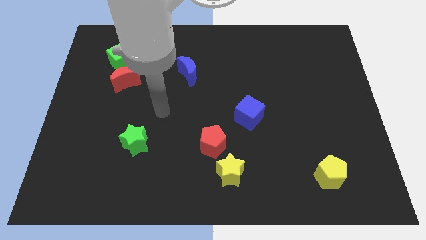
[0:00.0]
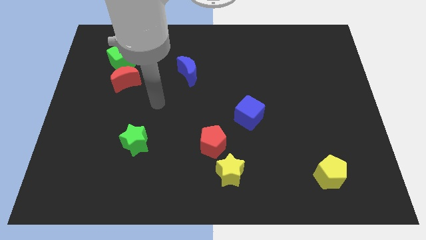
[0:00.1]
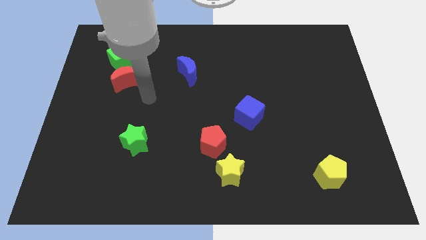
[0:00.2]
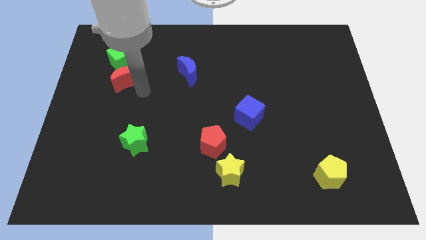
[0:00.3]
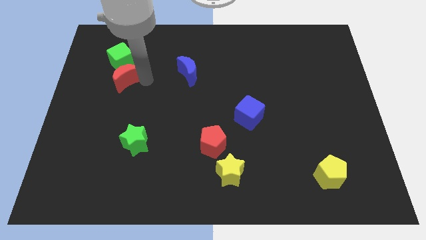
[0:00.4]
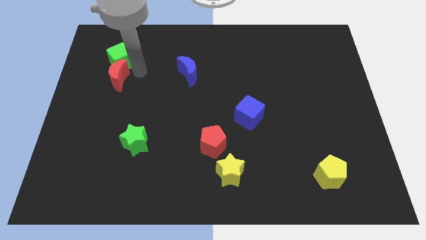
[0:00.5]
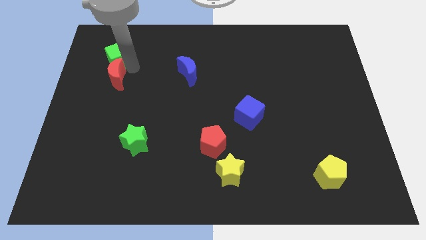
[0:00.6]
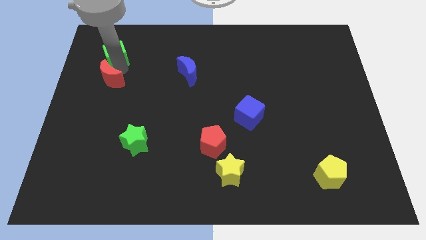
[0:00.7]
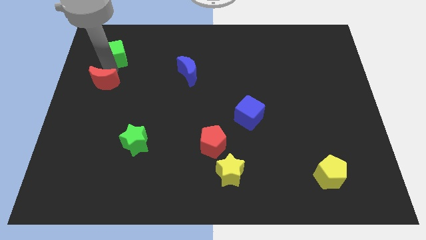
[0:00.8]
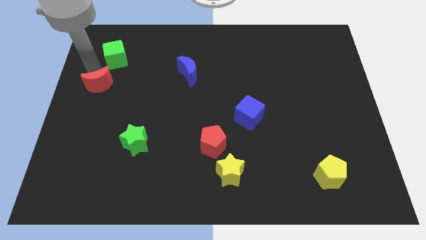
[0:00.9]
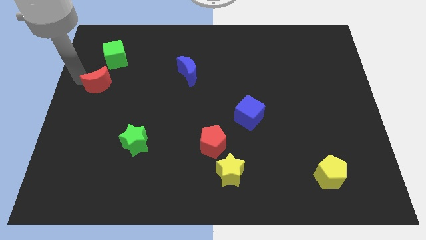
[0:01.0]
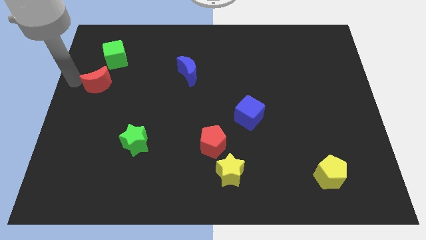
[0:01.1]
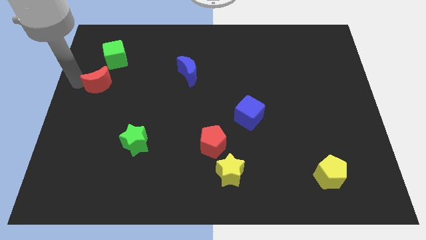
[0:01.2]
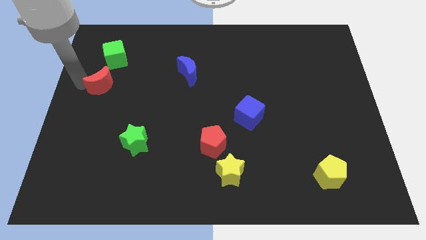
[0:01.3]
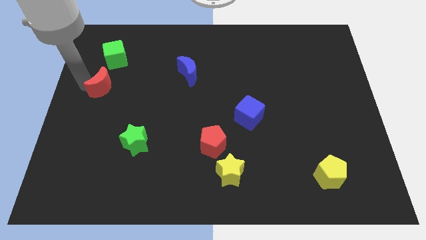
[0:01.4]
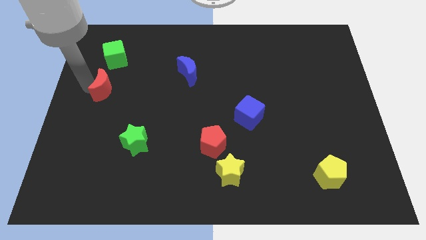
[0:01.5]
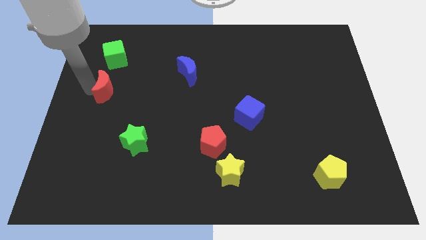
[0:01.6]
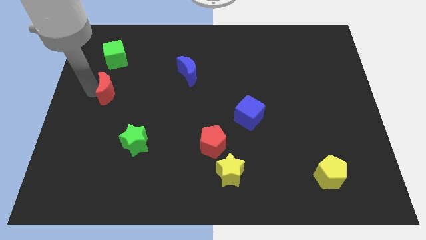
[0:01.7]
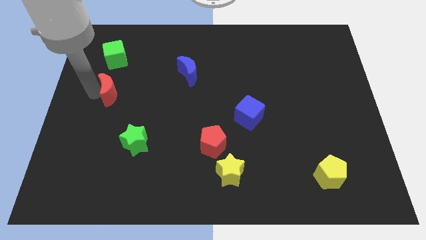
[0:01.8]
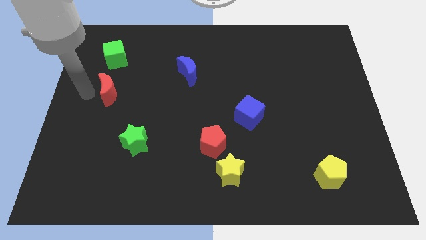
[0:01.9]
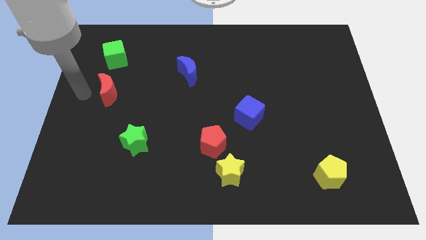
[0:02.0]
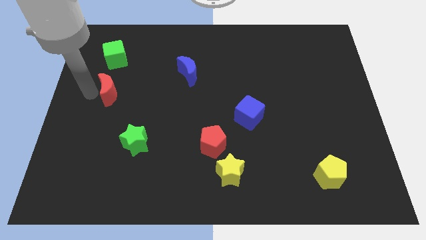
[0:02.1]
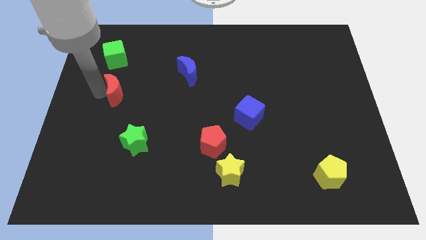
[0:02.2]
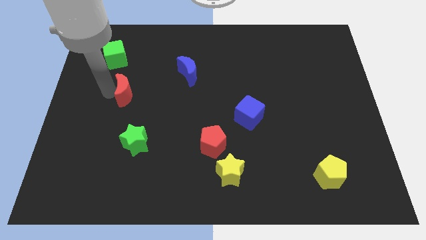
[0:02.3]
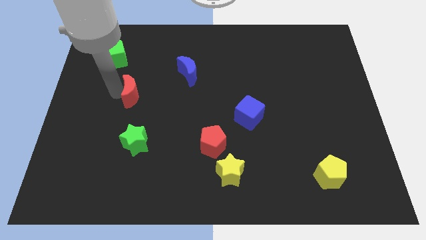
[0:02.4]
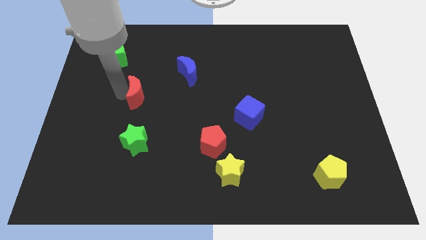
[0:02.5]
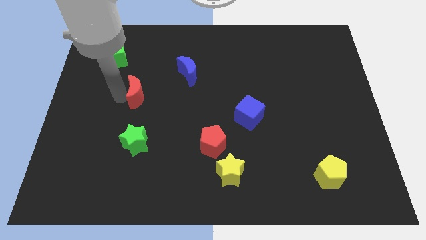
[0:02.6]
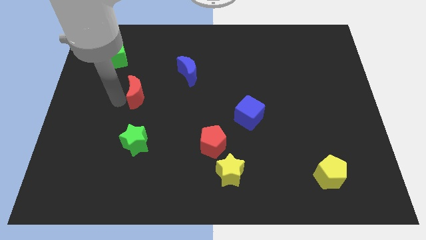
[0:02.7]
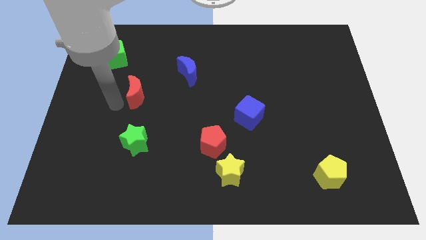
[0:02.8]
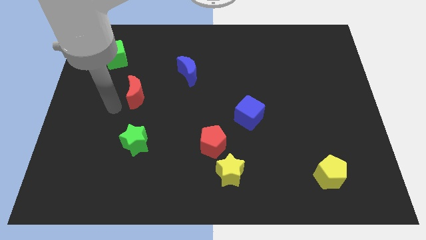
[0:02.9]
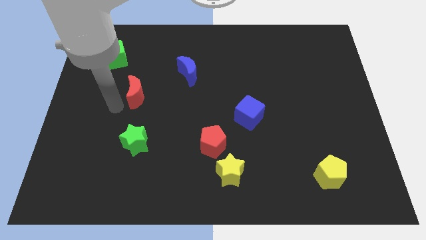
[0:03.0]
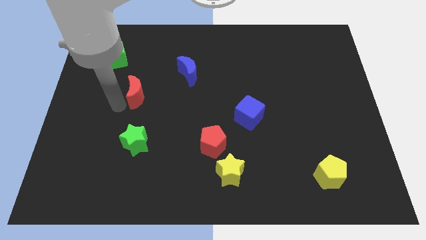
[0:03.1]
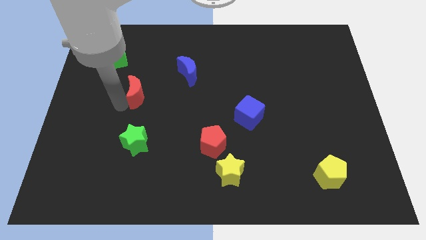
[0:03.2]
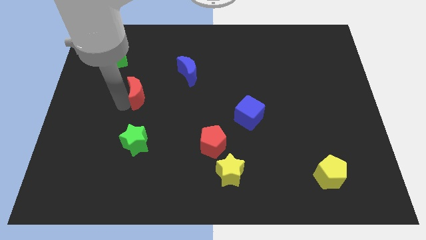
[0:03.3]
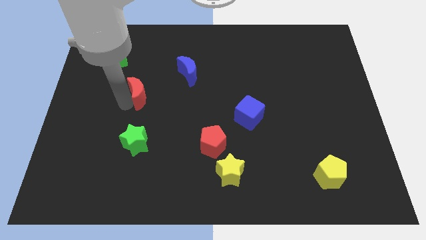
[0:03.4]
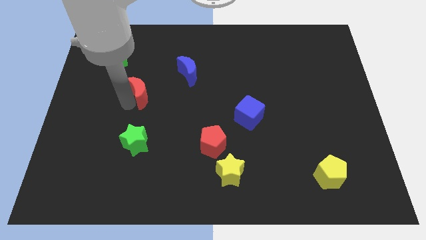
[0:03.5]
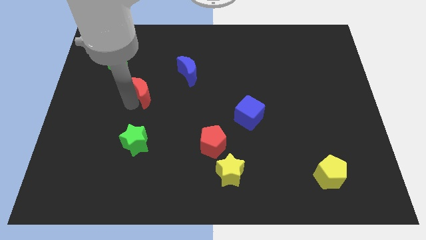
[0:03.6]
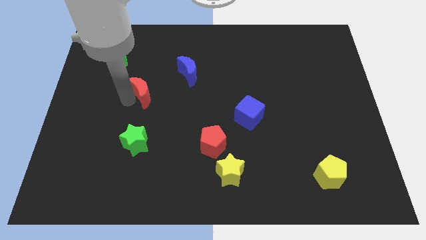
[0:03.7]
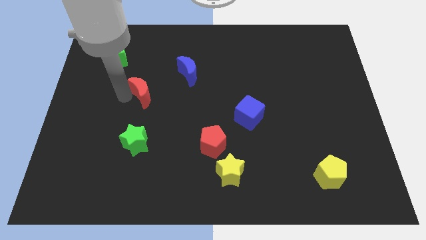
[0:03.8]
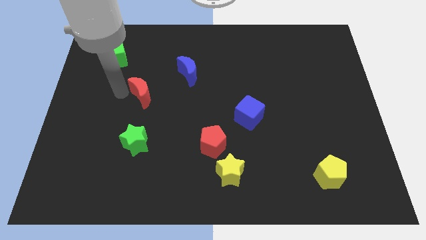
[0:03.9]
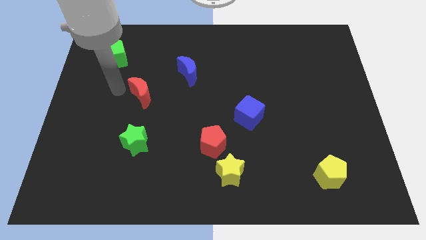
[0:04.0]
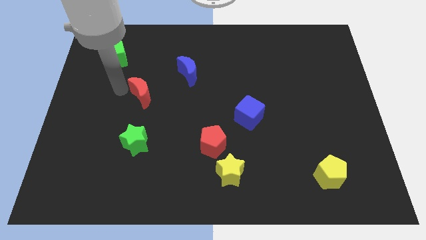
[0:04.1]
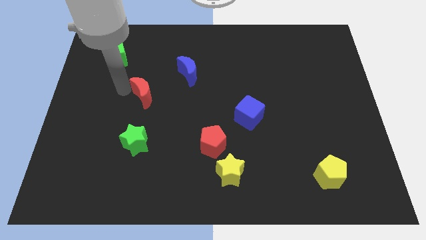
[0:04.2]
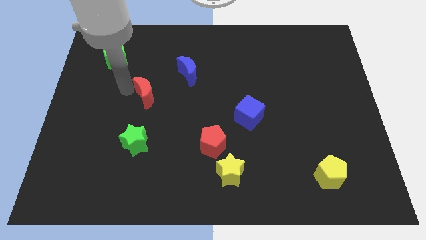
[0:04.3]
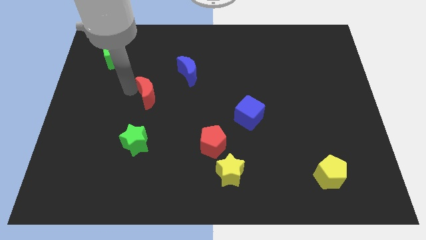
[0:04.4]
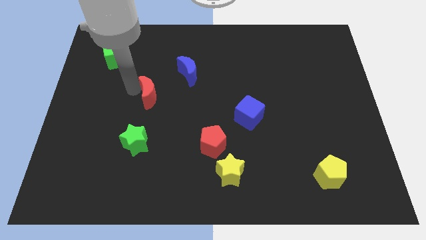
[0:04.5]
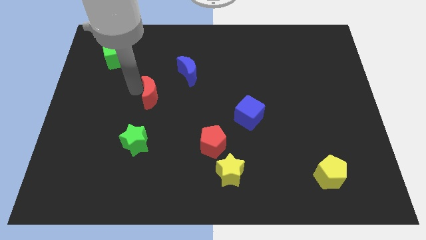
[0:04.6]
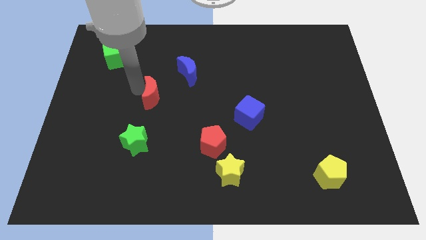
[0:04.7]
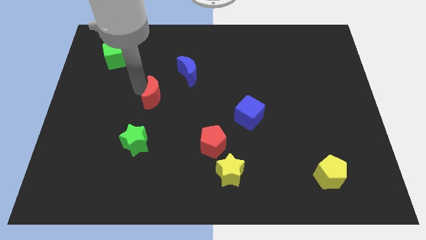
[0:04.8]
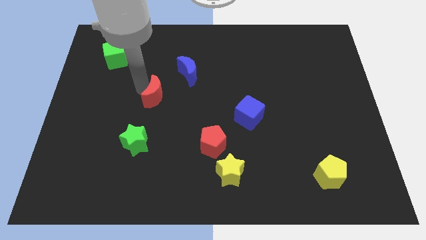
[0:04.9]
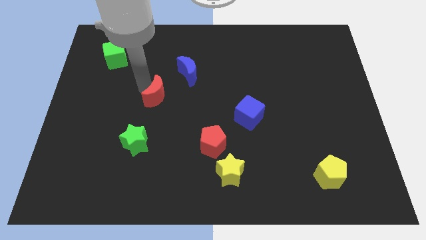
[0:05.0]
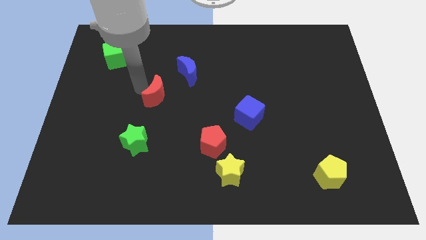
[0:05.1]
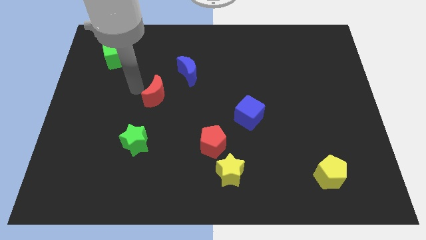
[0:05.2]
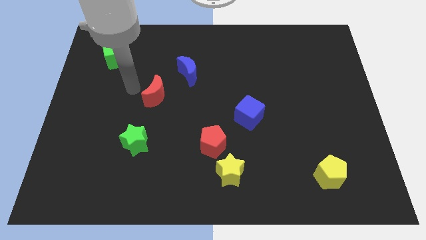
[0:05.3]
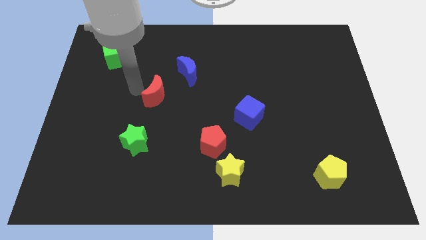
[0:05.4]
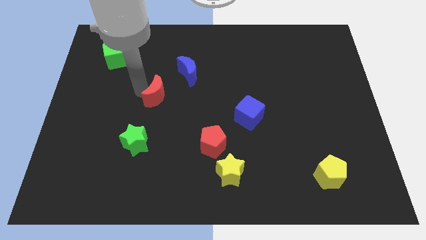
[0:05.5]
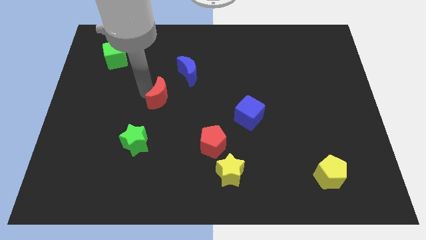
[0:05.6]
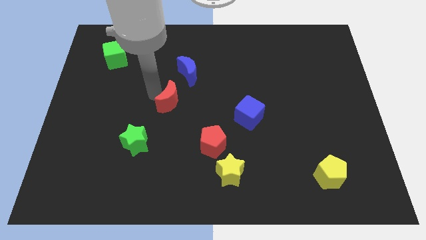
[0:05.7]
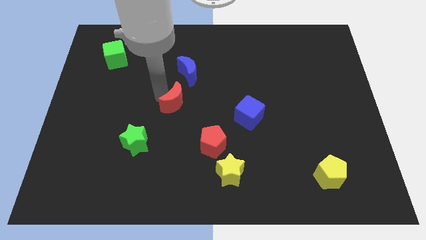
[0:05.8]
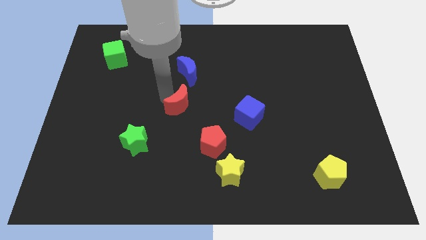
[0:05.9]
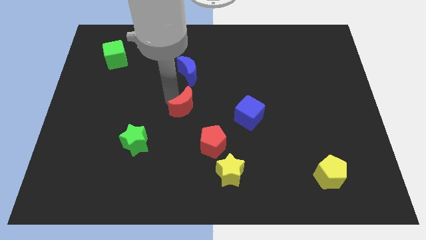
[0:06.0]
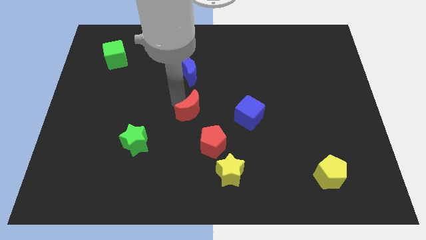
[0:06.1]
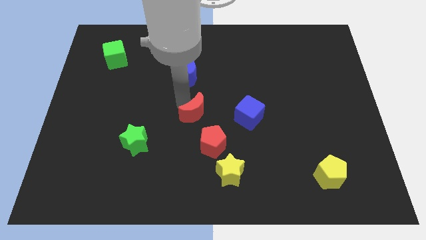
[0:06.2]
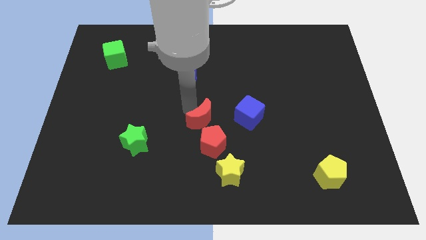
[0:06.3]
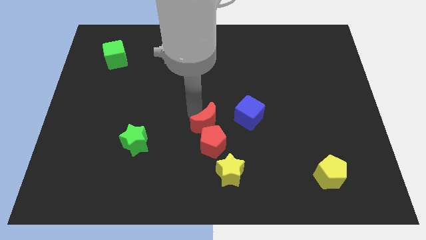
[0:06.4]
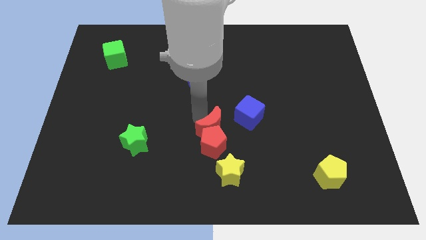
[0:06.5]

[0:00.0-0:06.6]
put the red moon diagonally down and to the left of the blue cube

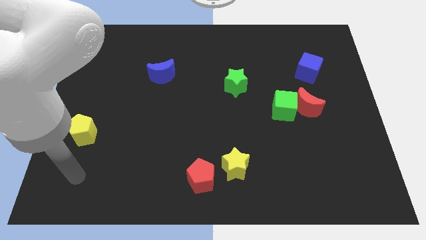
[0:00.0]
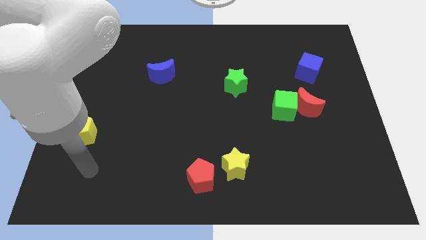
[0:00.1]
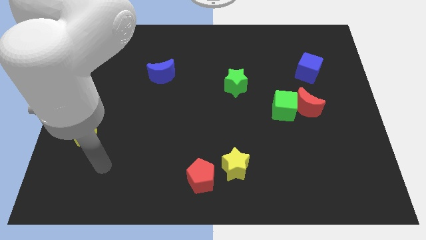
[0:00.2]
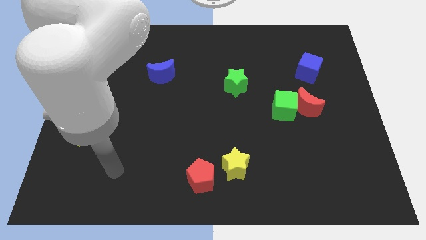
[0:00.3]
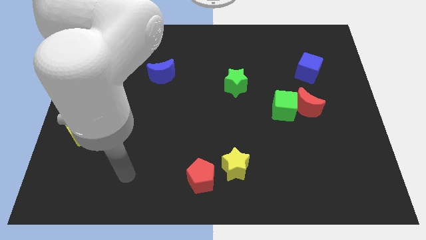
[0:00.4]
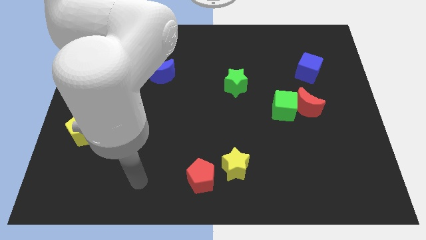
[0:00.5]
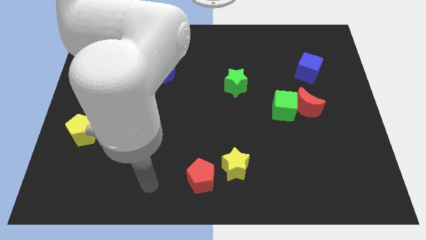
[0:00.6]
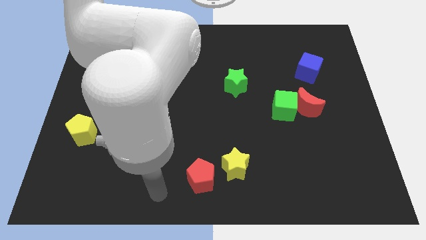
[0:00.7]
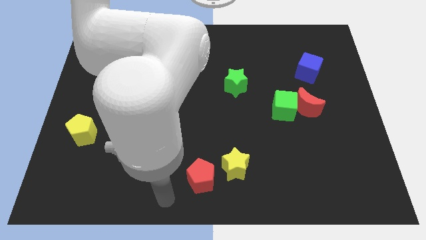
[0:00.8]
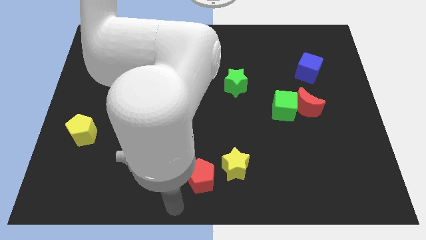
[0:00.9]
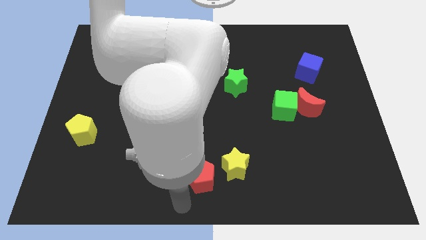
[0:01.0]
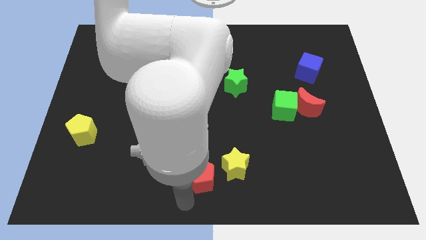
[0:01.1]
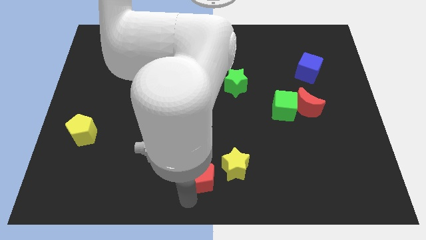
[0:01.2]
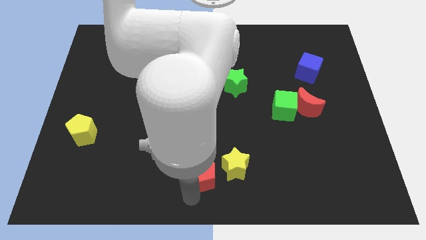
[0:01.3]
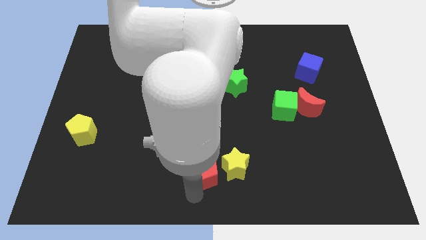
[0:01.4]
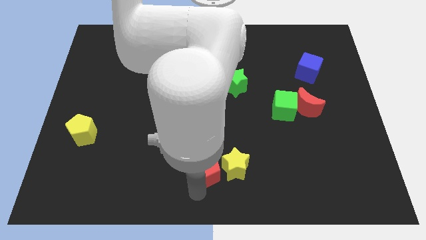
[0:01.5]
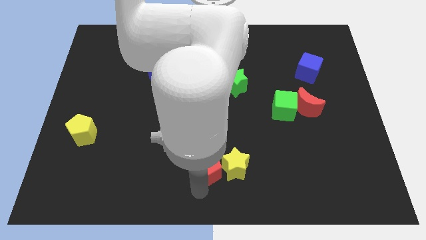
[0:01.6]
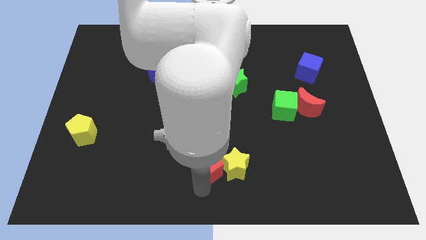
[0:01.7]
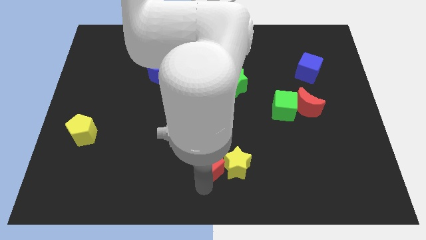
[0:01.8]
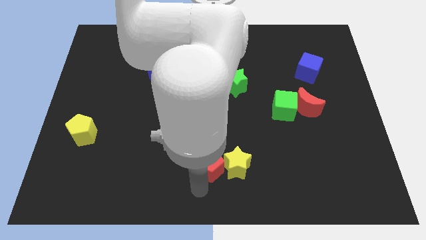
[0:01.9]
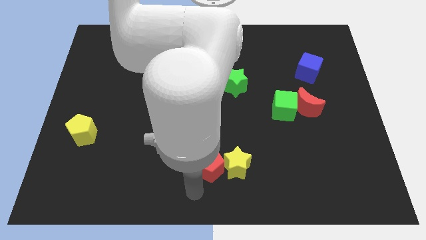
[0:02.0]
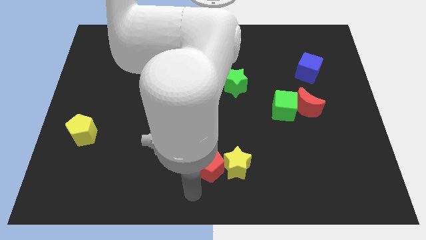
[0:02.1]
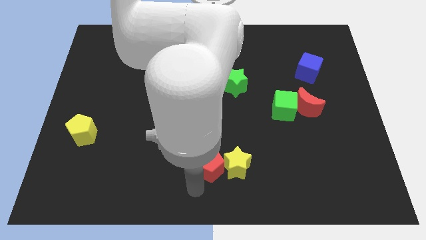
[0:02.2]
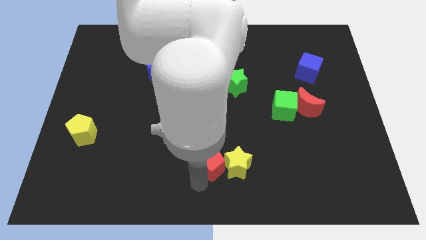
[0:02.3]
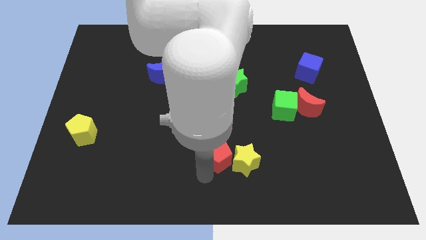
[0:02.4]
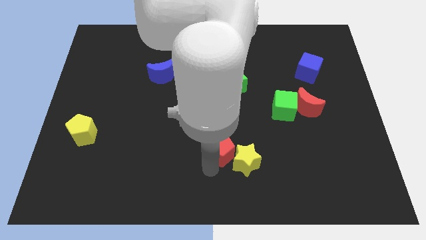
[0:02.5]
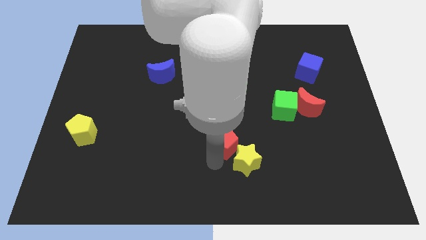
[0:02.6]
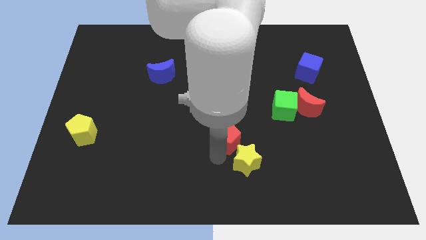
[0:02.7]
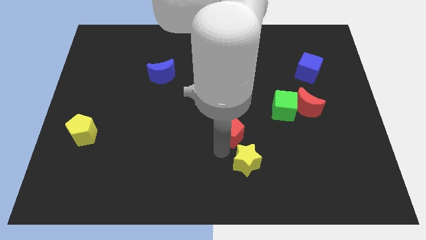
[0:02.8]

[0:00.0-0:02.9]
slide the red pentagon below the green star
